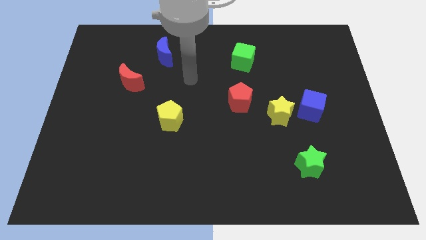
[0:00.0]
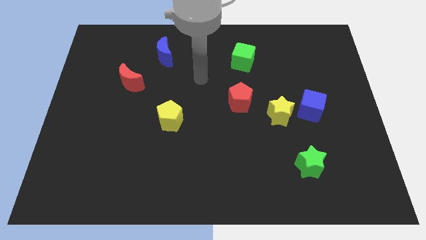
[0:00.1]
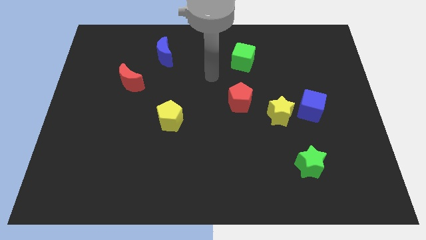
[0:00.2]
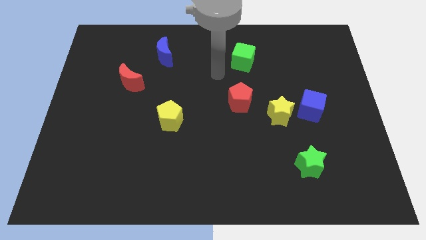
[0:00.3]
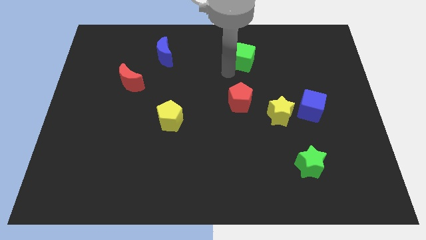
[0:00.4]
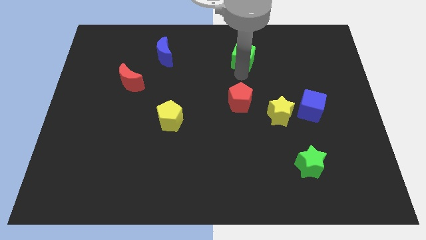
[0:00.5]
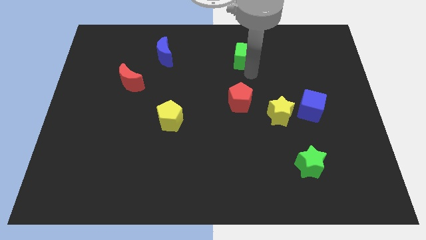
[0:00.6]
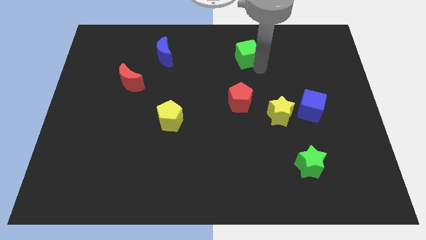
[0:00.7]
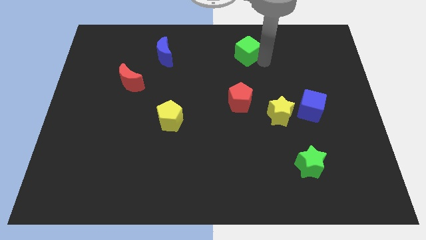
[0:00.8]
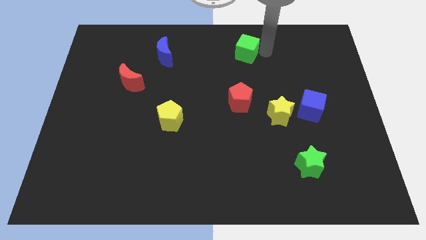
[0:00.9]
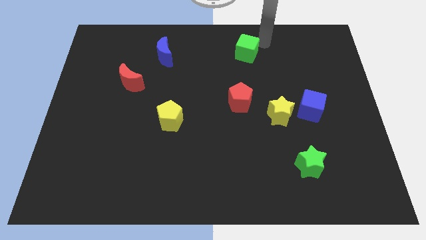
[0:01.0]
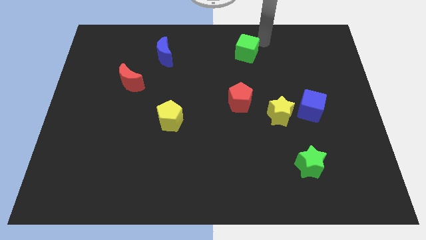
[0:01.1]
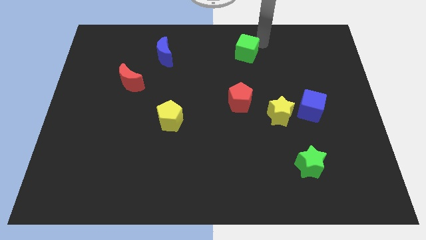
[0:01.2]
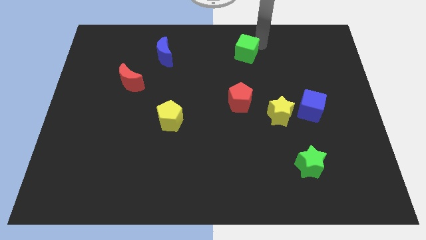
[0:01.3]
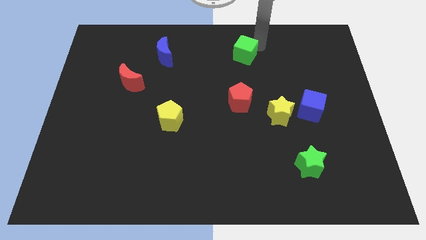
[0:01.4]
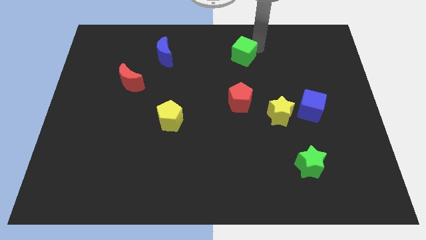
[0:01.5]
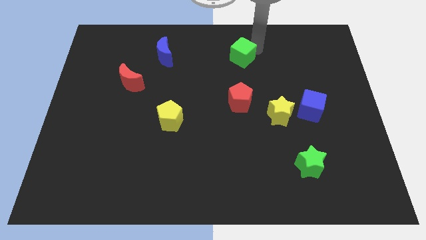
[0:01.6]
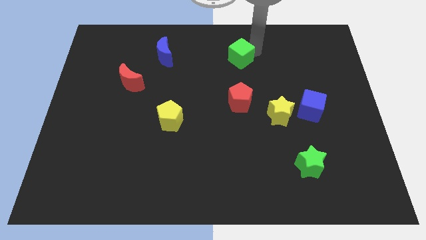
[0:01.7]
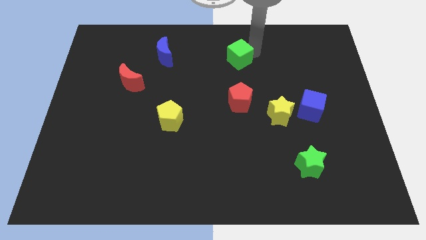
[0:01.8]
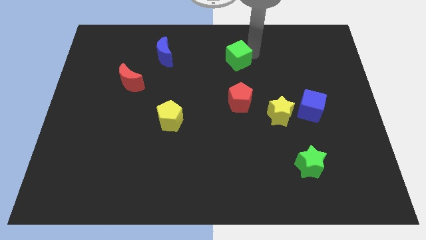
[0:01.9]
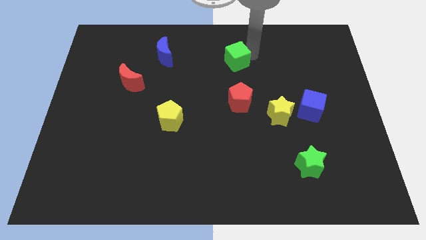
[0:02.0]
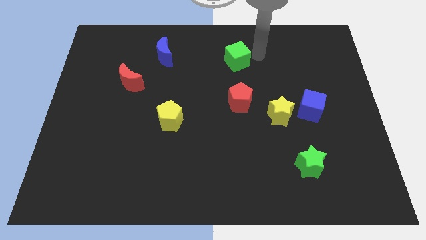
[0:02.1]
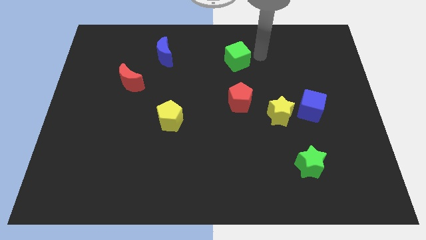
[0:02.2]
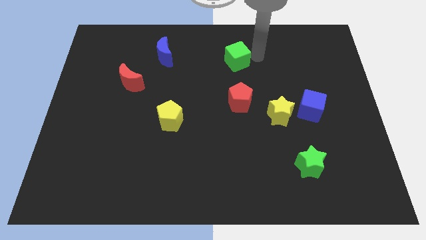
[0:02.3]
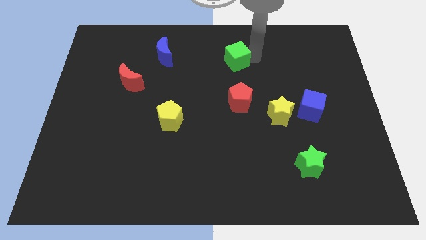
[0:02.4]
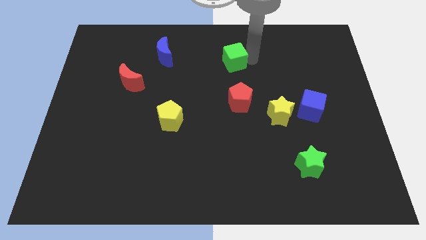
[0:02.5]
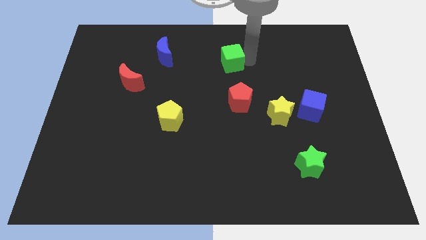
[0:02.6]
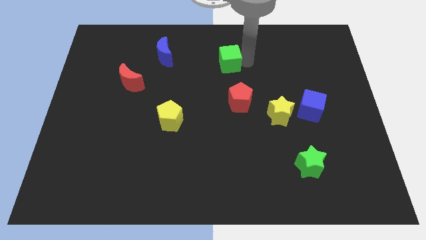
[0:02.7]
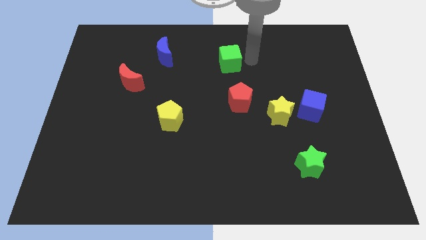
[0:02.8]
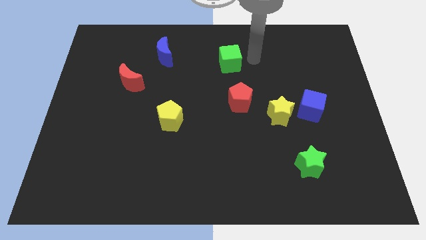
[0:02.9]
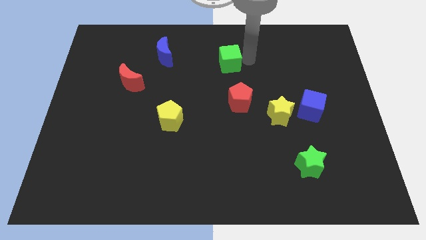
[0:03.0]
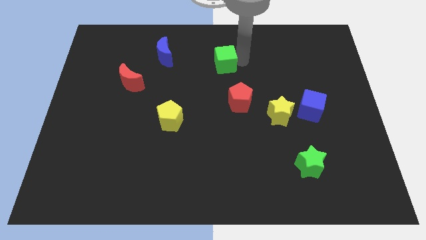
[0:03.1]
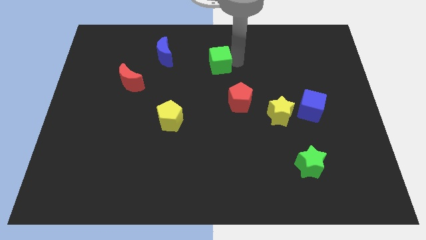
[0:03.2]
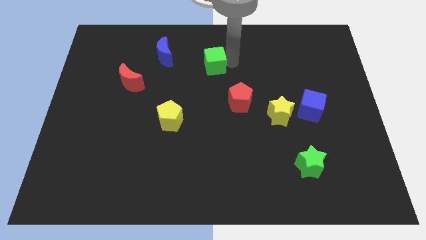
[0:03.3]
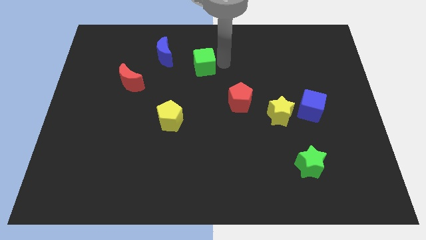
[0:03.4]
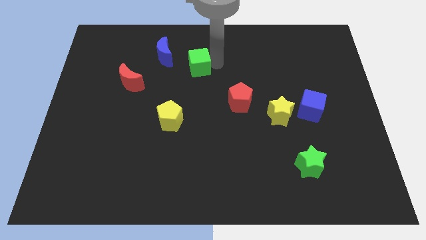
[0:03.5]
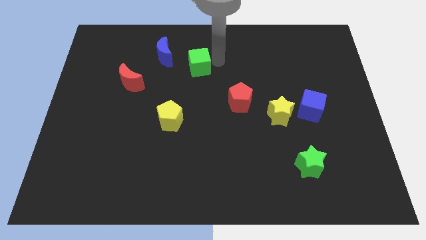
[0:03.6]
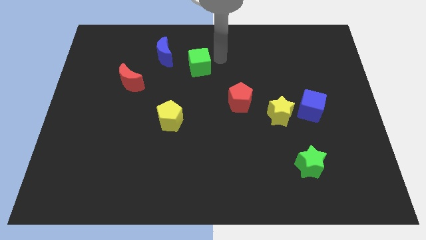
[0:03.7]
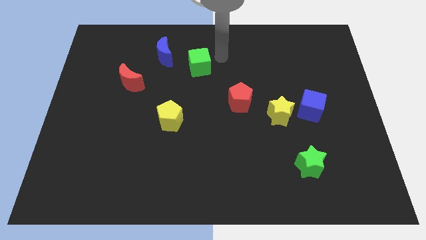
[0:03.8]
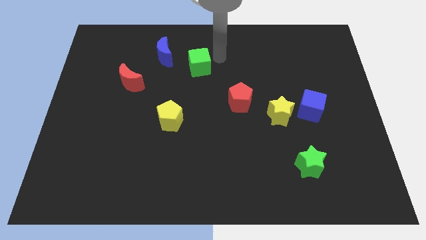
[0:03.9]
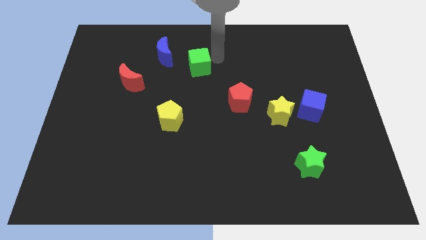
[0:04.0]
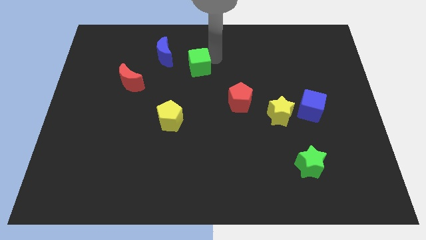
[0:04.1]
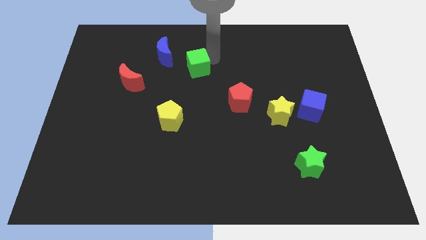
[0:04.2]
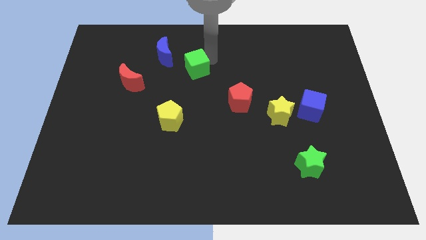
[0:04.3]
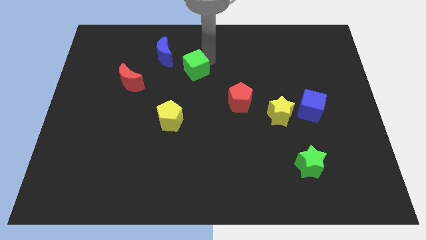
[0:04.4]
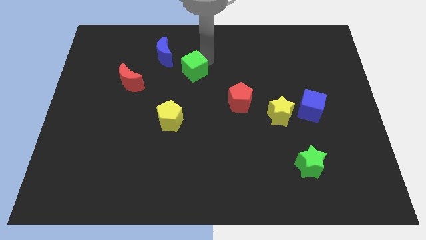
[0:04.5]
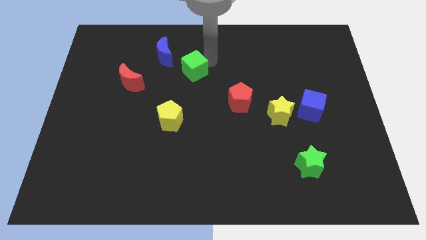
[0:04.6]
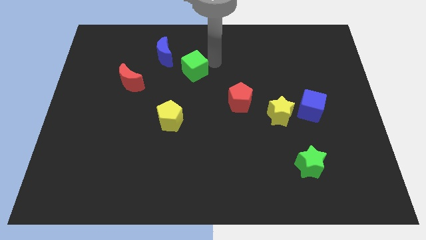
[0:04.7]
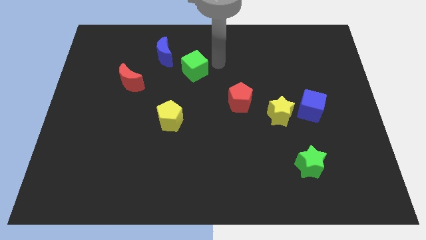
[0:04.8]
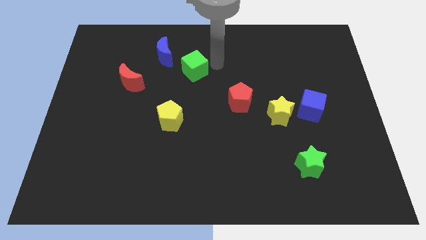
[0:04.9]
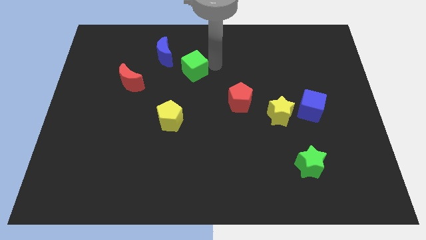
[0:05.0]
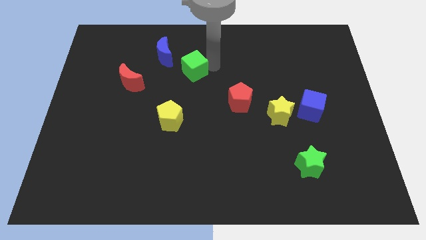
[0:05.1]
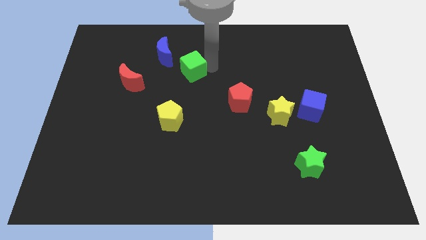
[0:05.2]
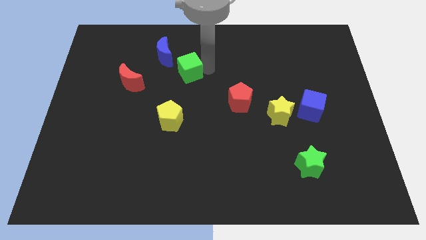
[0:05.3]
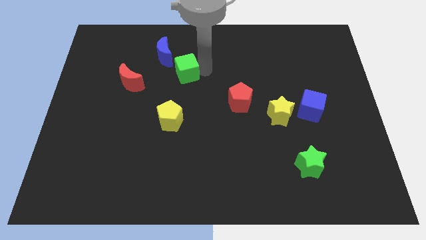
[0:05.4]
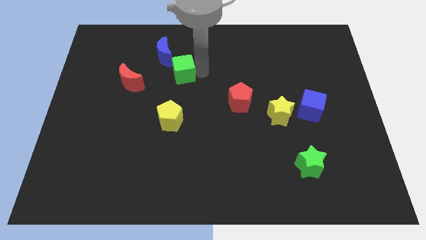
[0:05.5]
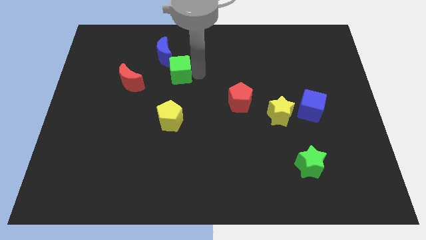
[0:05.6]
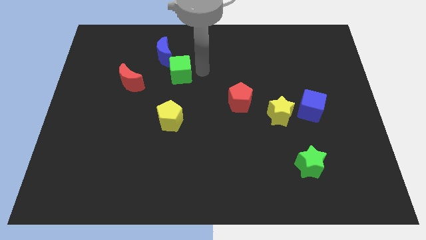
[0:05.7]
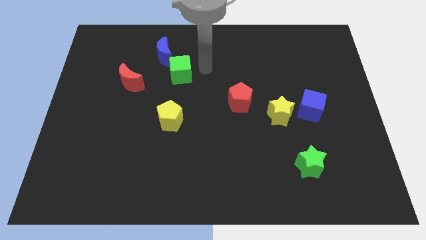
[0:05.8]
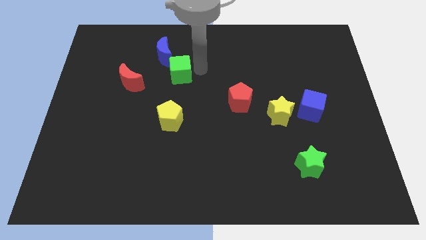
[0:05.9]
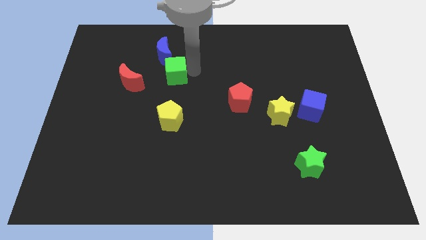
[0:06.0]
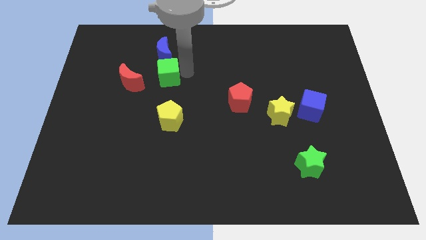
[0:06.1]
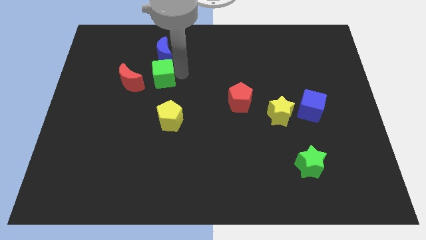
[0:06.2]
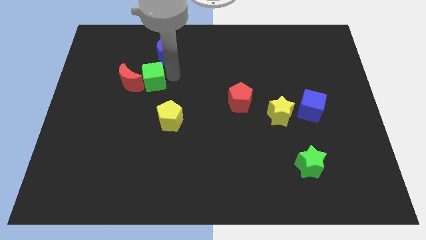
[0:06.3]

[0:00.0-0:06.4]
push the green cube to the red moon
